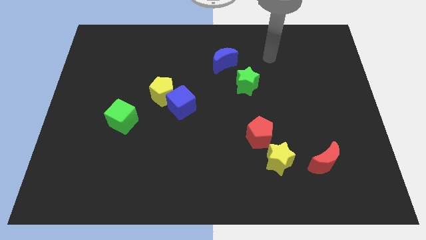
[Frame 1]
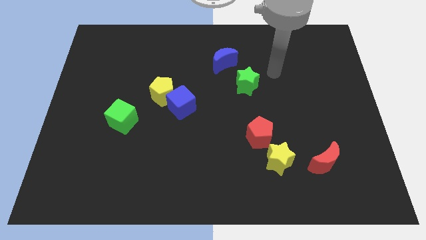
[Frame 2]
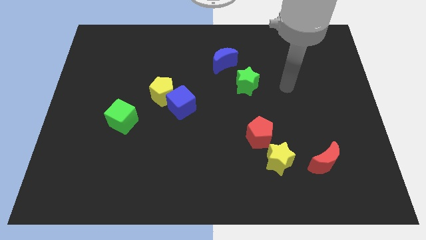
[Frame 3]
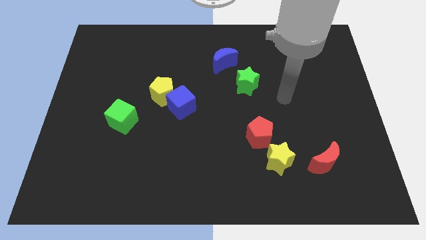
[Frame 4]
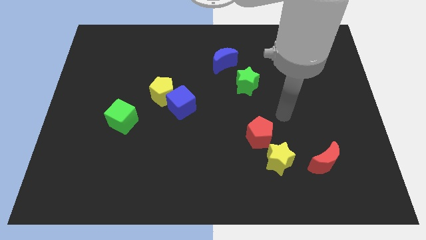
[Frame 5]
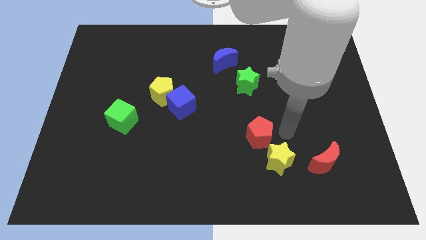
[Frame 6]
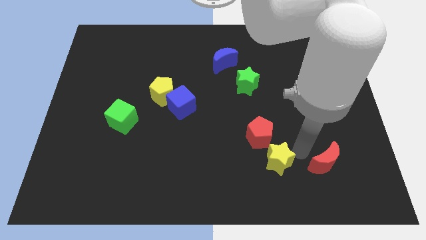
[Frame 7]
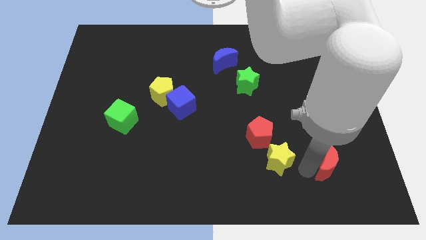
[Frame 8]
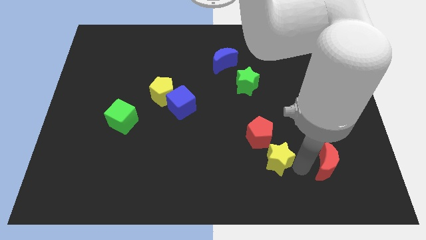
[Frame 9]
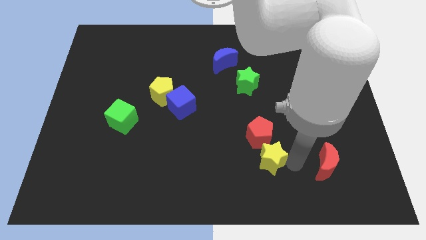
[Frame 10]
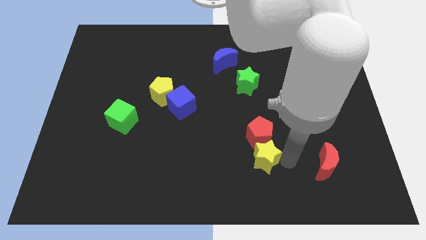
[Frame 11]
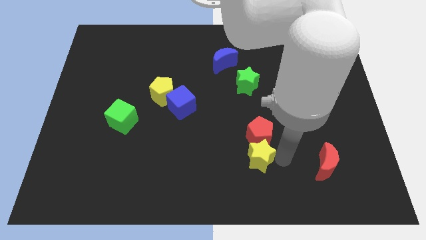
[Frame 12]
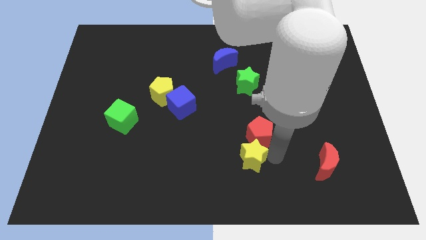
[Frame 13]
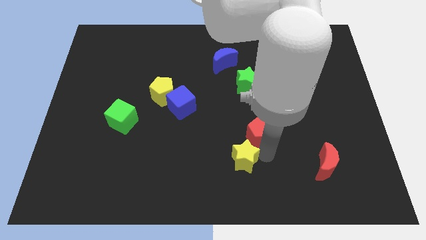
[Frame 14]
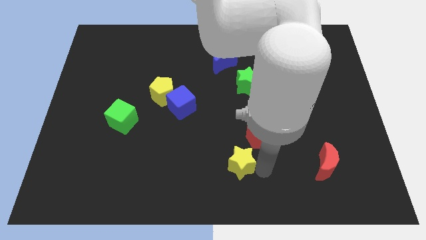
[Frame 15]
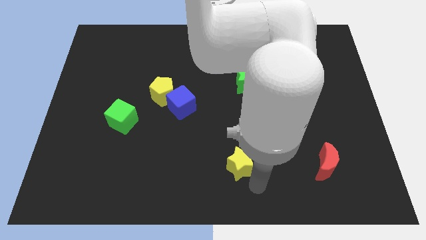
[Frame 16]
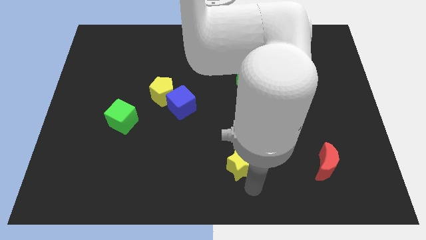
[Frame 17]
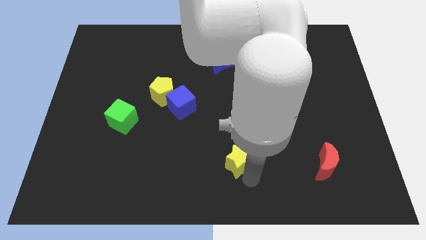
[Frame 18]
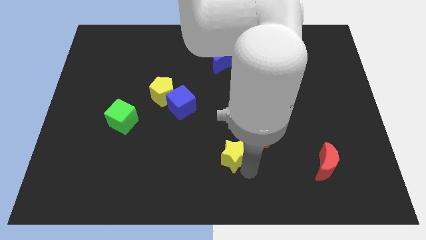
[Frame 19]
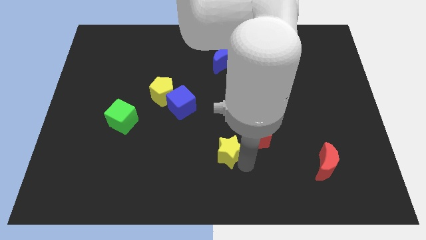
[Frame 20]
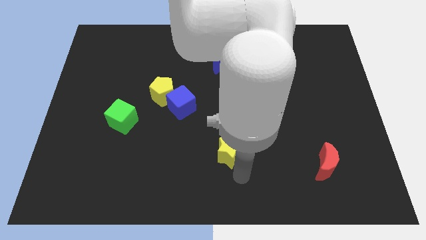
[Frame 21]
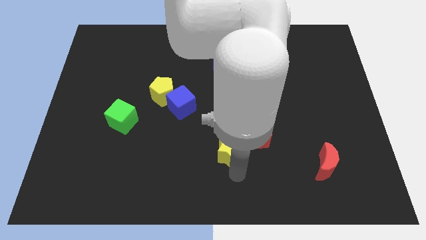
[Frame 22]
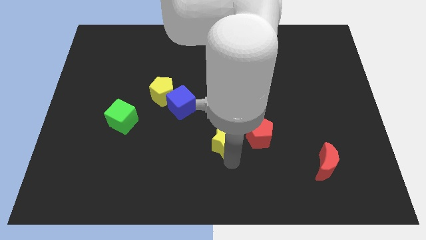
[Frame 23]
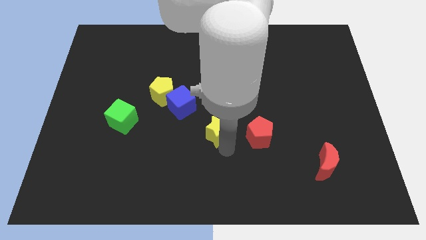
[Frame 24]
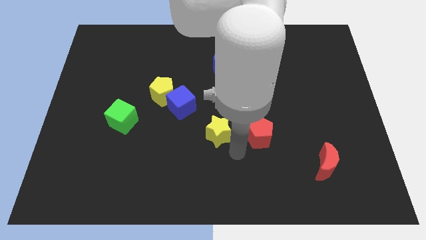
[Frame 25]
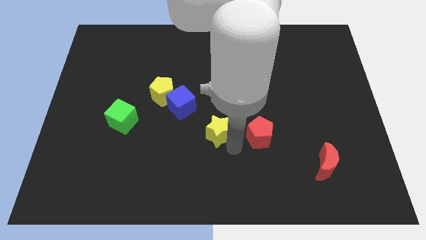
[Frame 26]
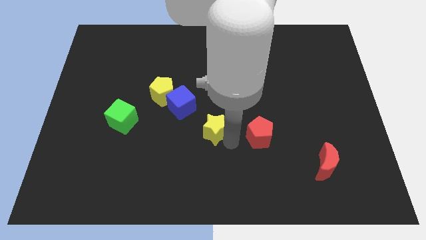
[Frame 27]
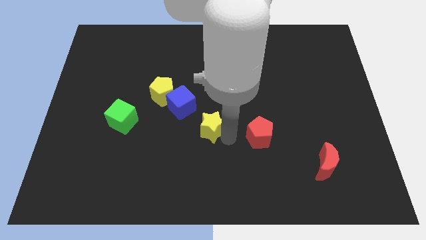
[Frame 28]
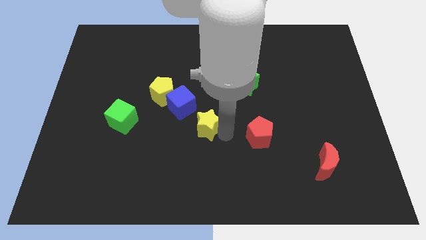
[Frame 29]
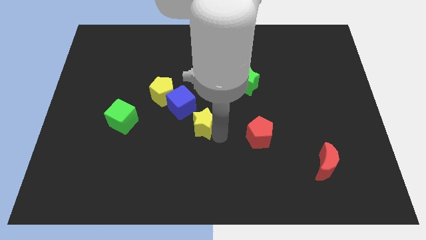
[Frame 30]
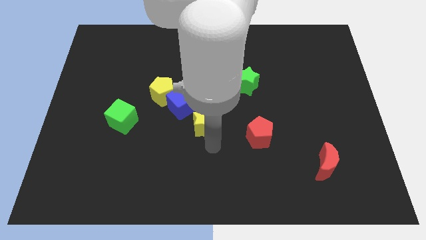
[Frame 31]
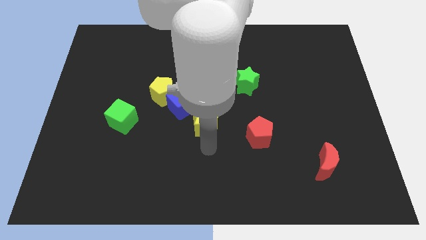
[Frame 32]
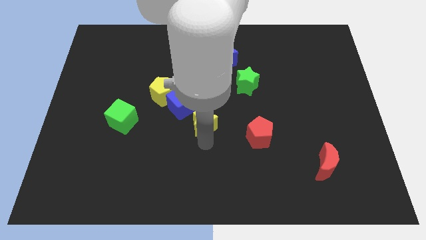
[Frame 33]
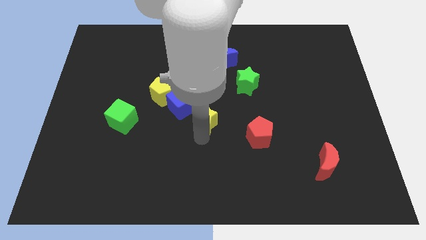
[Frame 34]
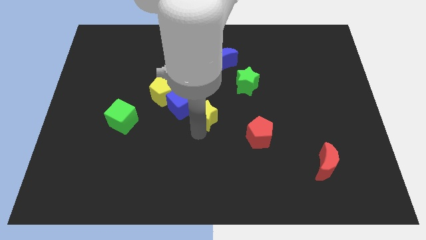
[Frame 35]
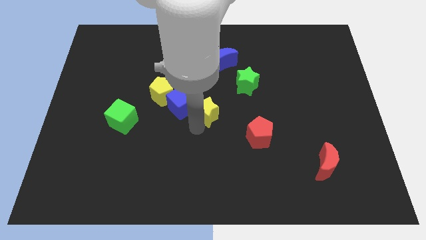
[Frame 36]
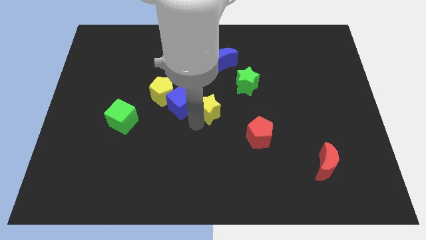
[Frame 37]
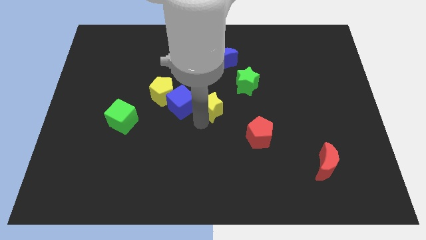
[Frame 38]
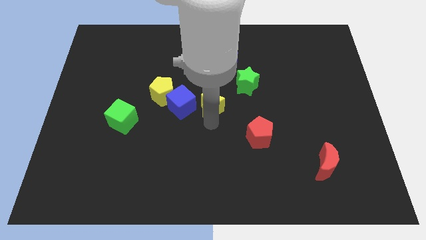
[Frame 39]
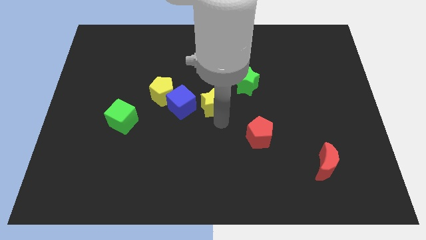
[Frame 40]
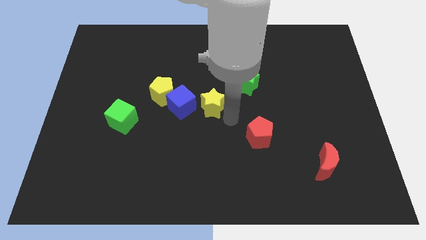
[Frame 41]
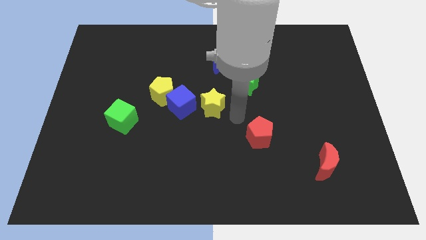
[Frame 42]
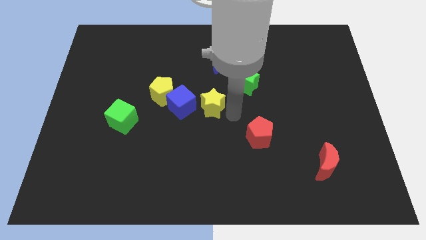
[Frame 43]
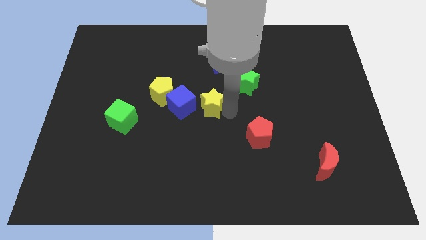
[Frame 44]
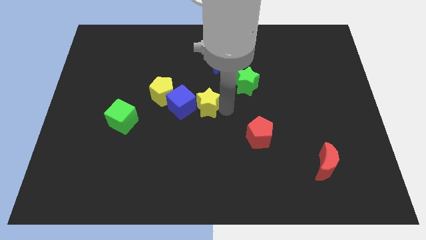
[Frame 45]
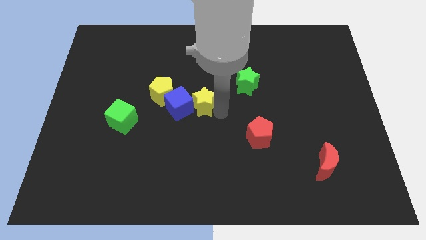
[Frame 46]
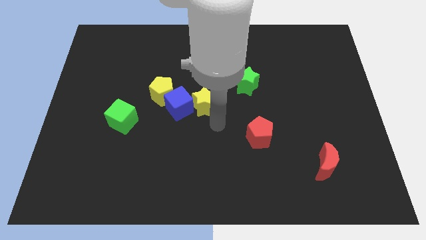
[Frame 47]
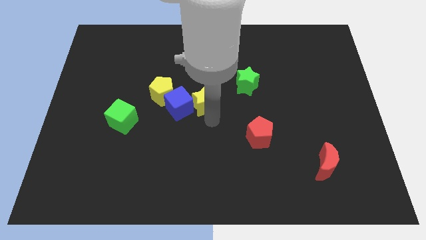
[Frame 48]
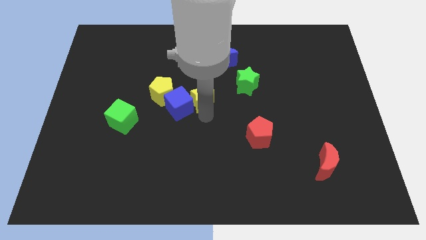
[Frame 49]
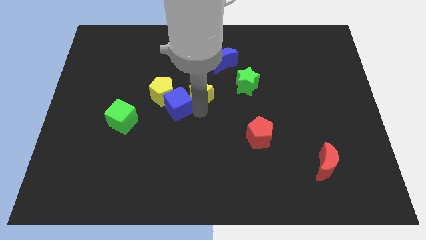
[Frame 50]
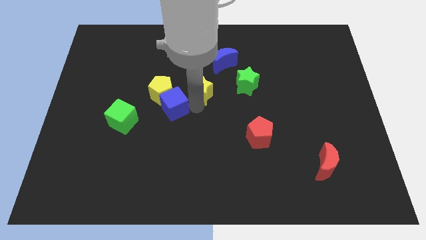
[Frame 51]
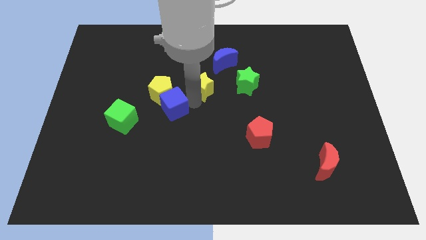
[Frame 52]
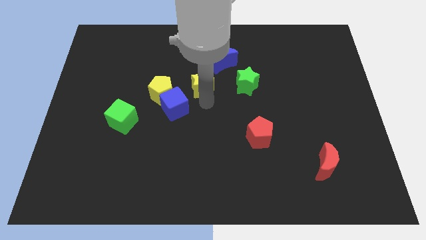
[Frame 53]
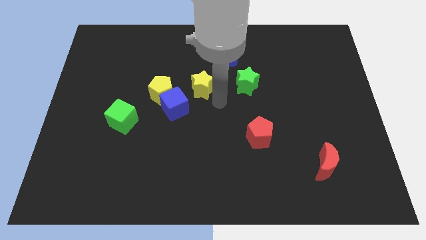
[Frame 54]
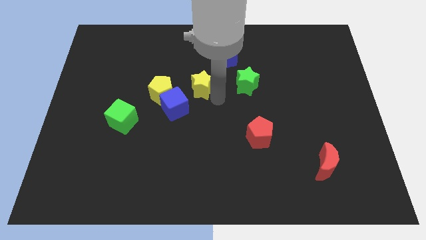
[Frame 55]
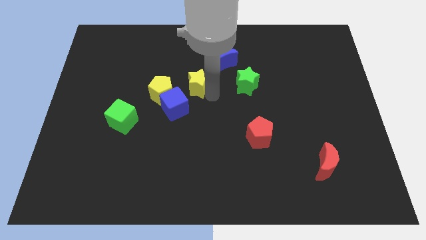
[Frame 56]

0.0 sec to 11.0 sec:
move the yellow star diagonally up and to the right of the yellow pentagon
